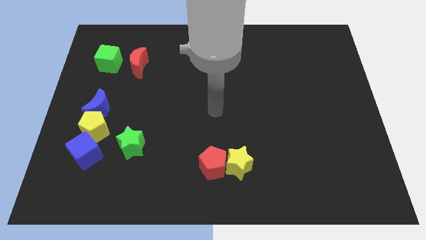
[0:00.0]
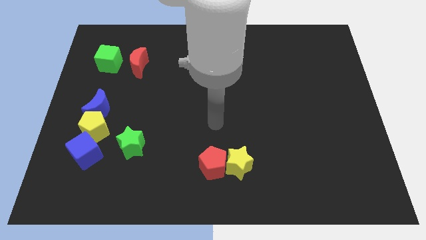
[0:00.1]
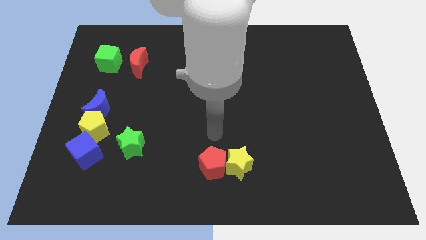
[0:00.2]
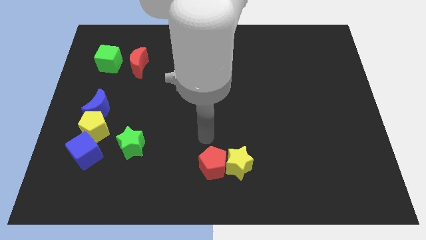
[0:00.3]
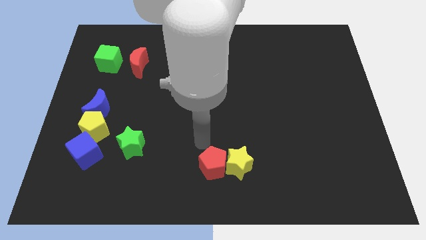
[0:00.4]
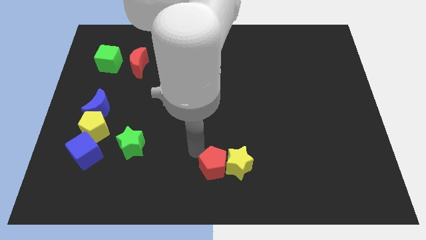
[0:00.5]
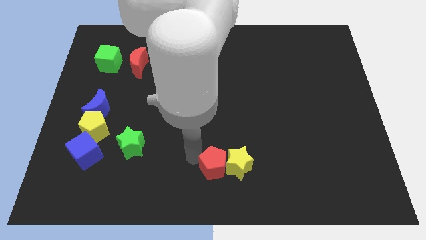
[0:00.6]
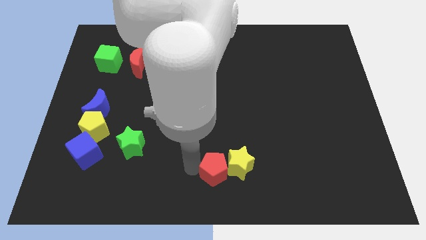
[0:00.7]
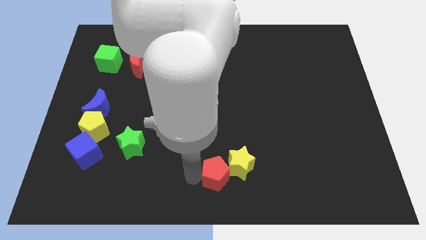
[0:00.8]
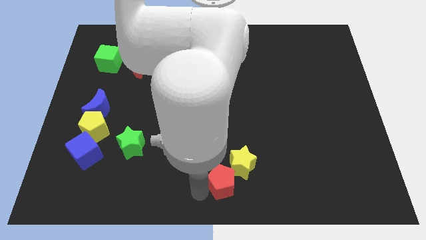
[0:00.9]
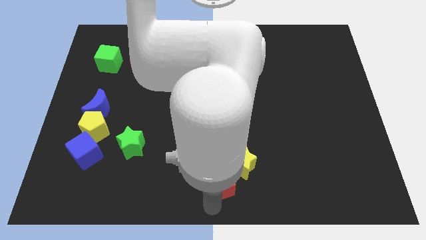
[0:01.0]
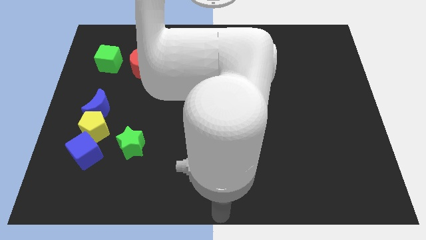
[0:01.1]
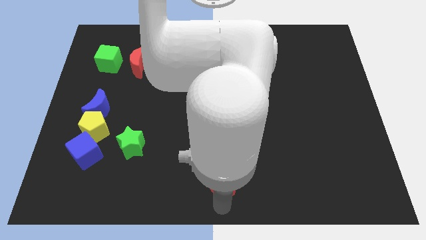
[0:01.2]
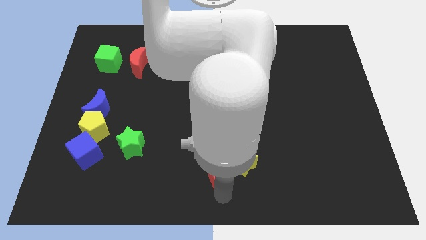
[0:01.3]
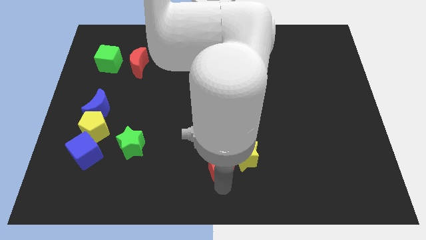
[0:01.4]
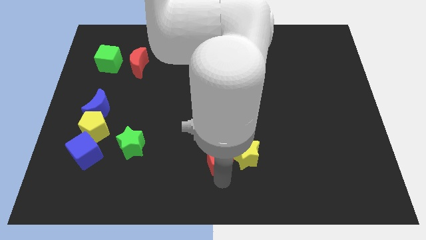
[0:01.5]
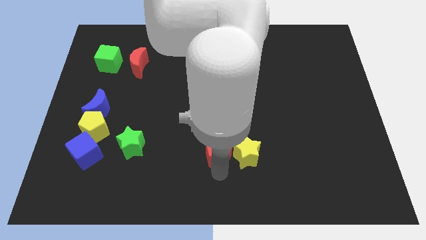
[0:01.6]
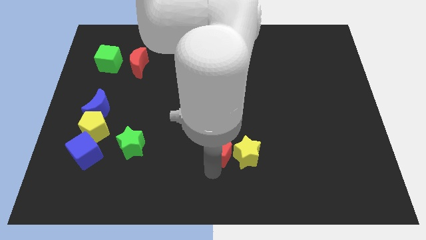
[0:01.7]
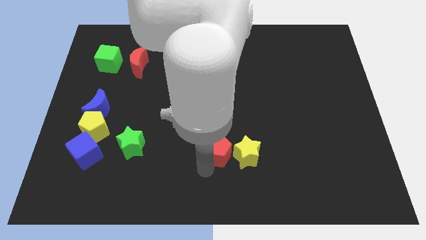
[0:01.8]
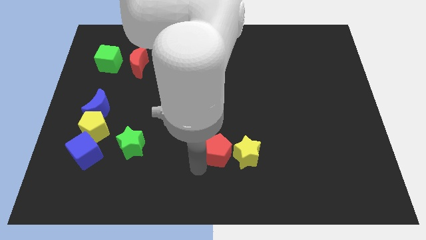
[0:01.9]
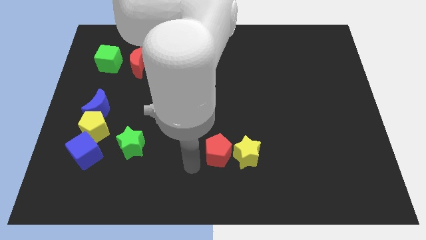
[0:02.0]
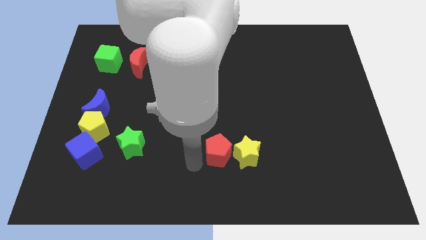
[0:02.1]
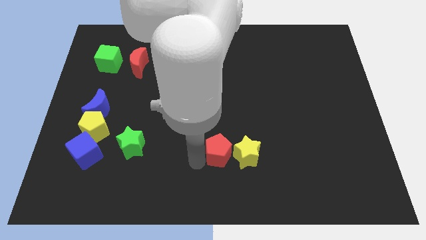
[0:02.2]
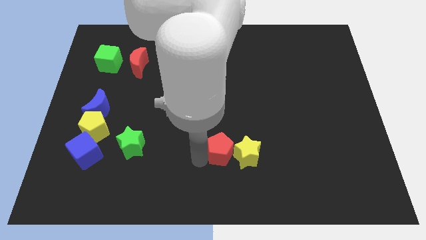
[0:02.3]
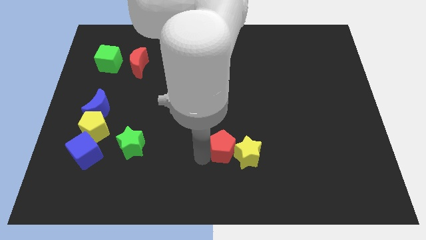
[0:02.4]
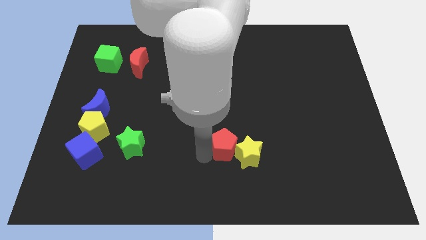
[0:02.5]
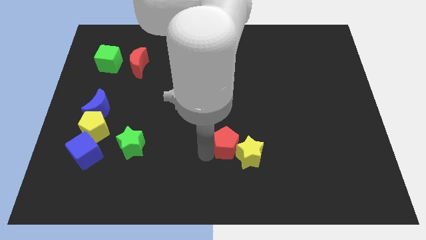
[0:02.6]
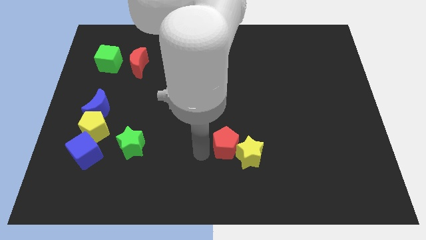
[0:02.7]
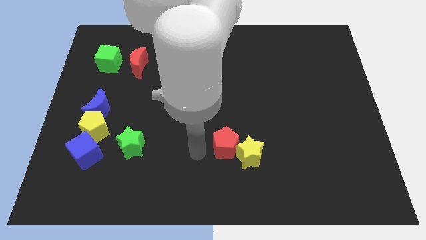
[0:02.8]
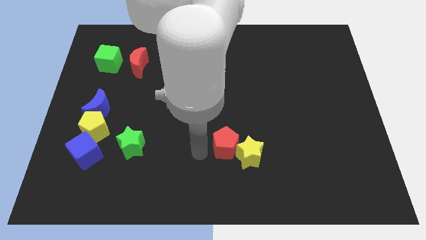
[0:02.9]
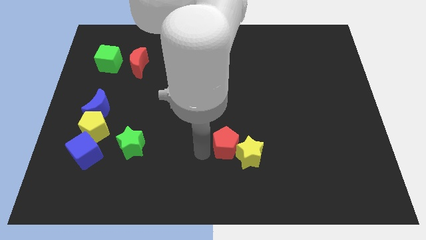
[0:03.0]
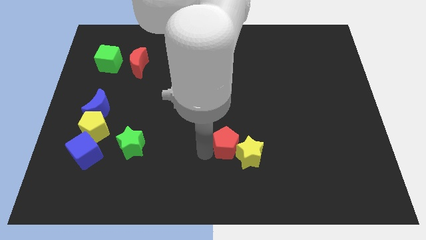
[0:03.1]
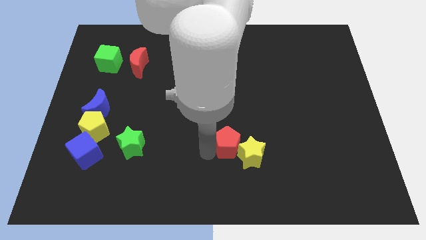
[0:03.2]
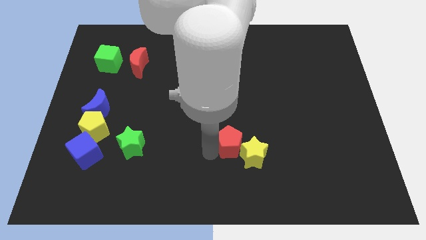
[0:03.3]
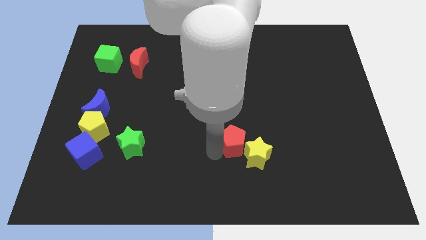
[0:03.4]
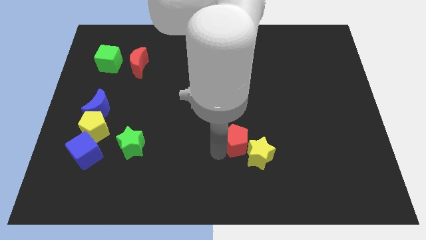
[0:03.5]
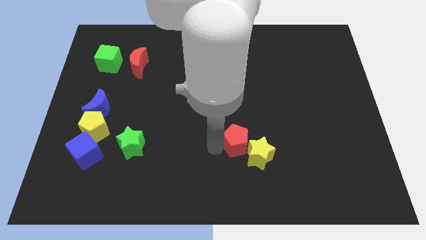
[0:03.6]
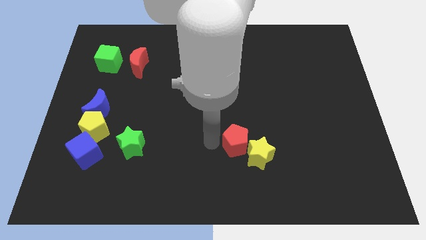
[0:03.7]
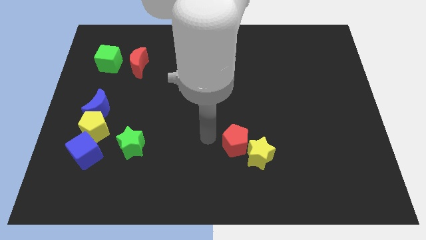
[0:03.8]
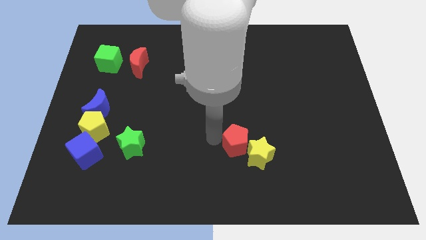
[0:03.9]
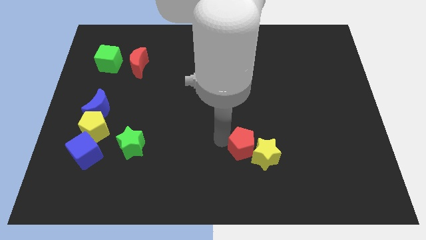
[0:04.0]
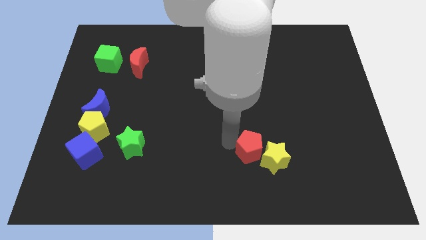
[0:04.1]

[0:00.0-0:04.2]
slide the red pentagon somewhat to the right

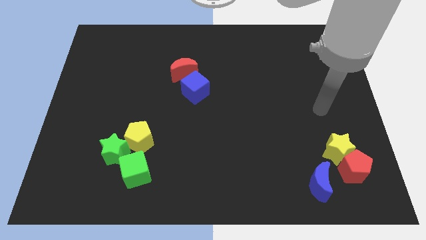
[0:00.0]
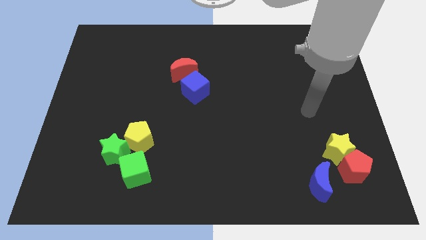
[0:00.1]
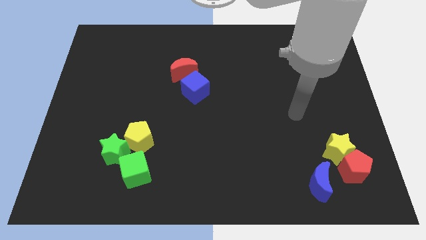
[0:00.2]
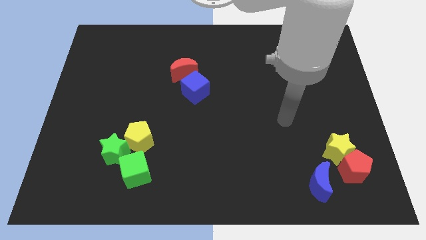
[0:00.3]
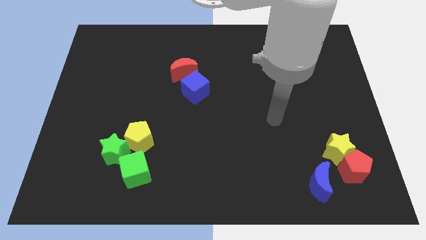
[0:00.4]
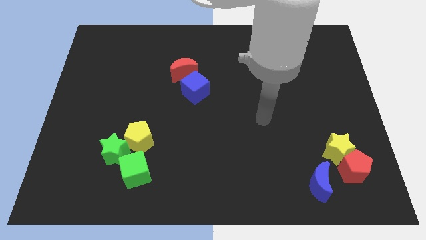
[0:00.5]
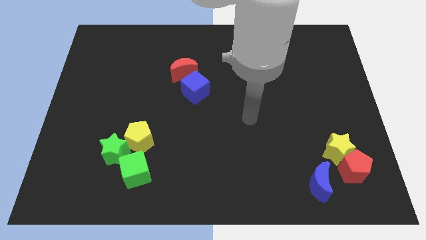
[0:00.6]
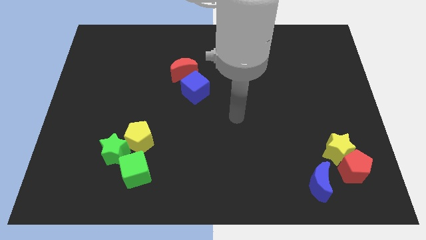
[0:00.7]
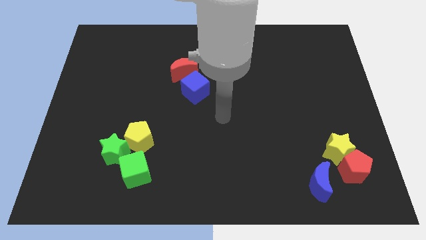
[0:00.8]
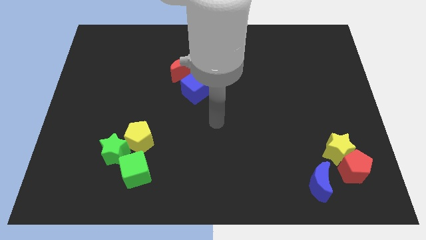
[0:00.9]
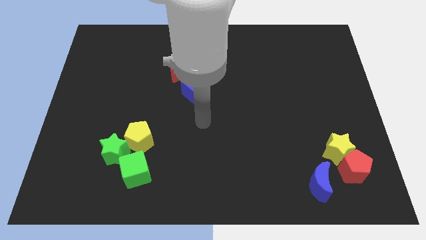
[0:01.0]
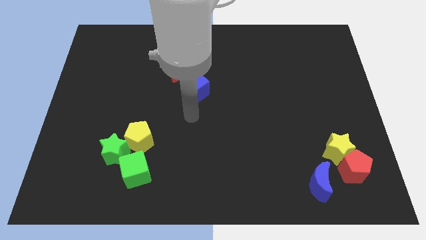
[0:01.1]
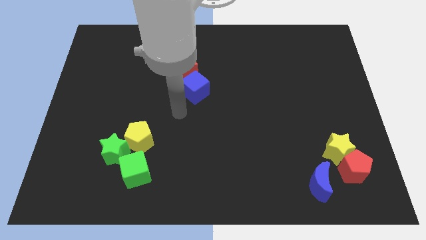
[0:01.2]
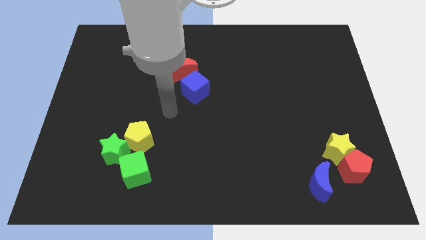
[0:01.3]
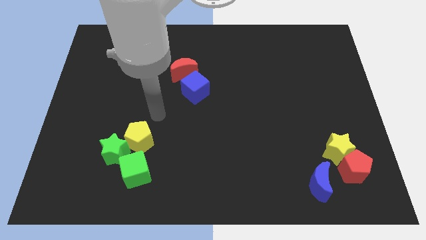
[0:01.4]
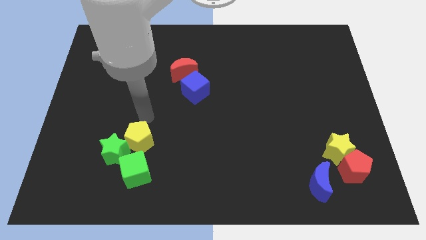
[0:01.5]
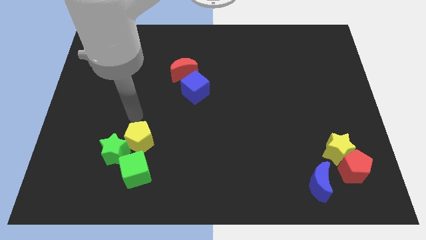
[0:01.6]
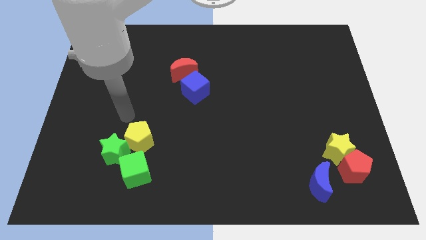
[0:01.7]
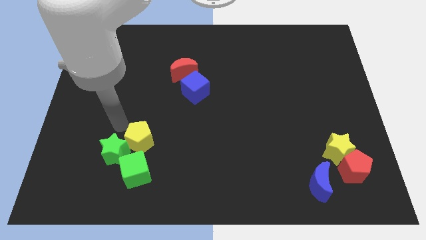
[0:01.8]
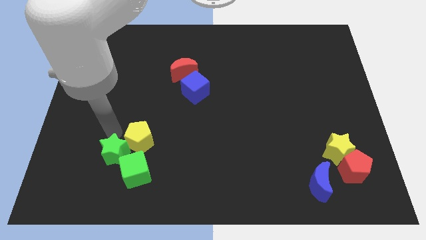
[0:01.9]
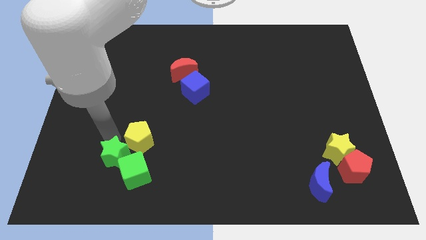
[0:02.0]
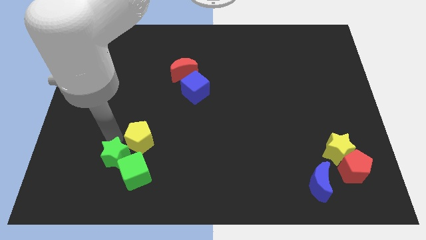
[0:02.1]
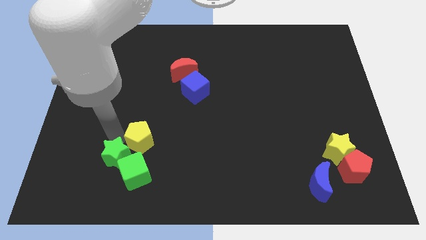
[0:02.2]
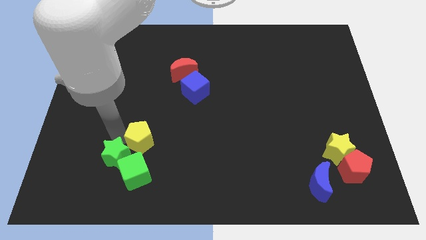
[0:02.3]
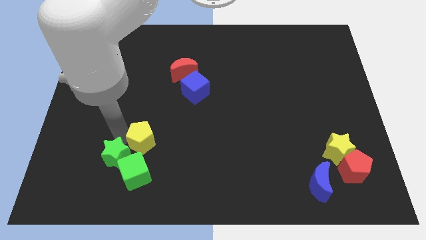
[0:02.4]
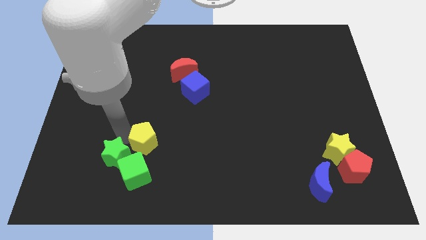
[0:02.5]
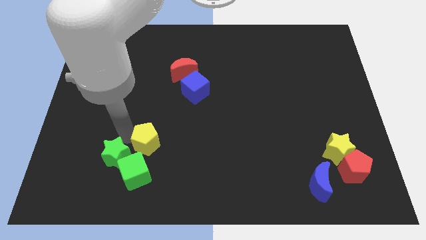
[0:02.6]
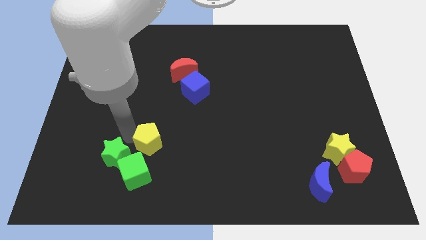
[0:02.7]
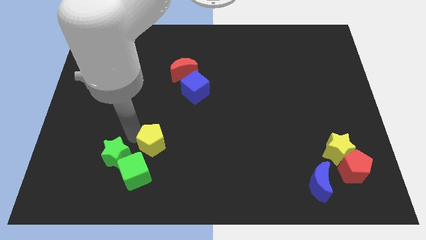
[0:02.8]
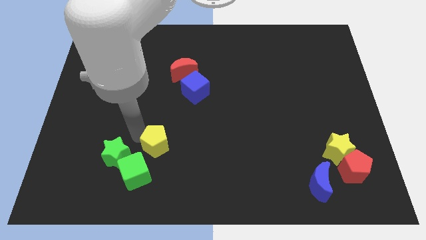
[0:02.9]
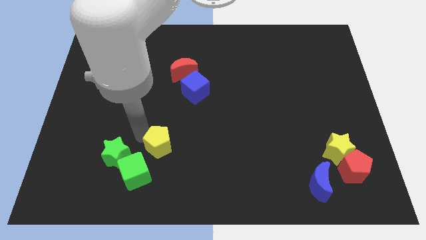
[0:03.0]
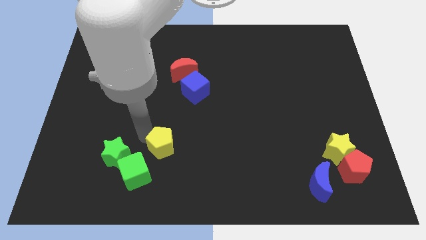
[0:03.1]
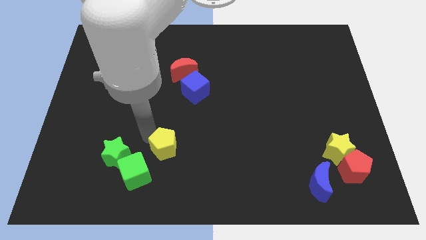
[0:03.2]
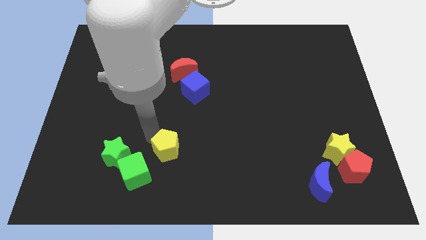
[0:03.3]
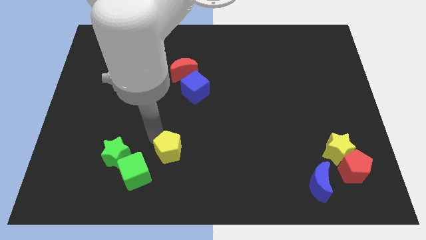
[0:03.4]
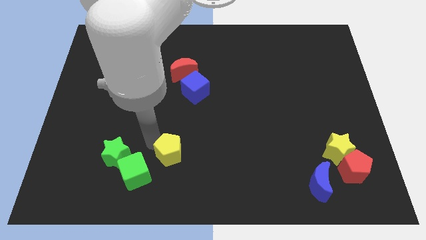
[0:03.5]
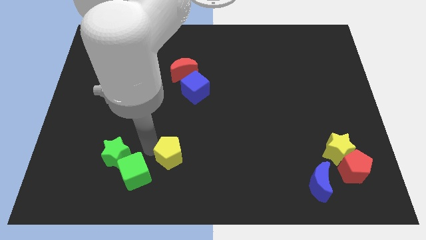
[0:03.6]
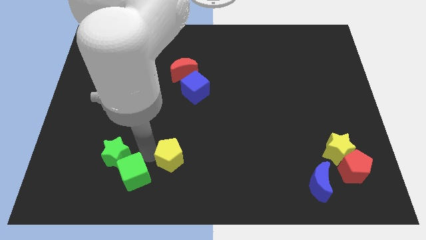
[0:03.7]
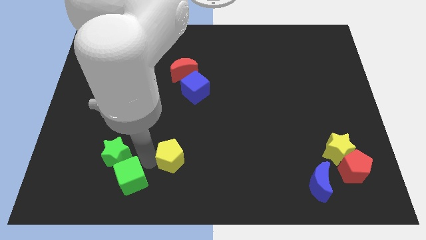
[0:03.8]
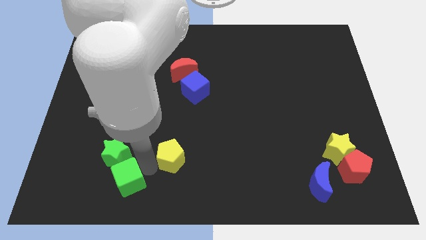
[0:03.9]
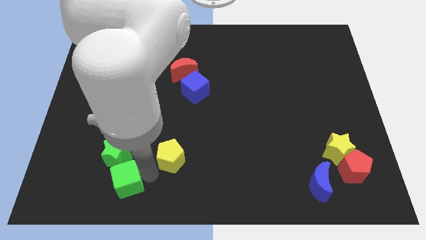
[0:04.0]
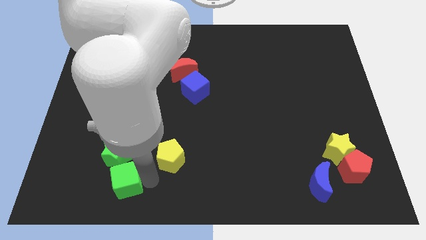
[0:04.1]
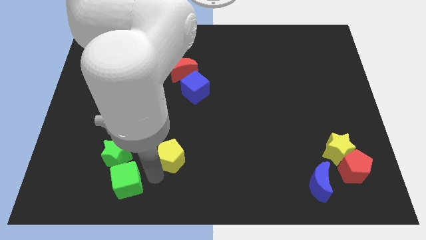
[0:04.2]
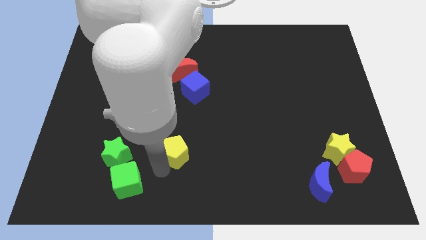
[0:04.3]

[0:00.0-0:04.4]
move the yellow pentagon right slightly
